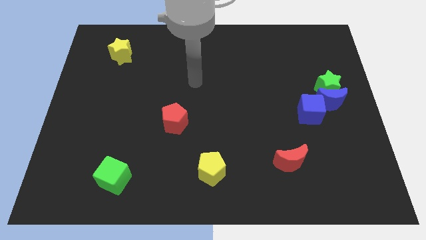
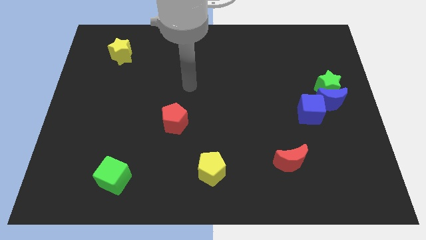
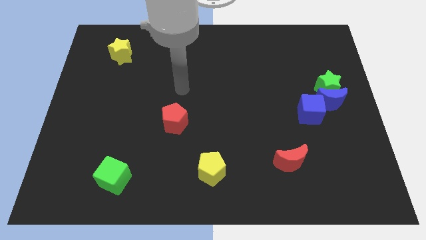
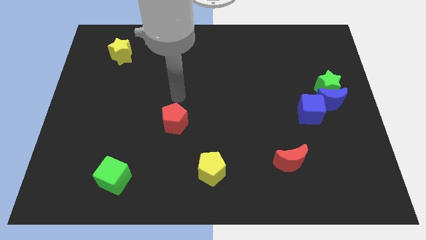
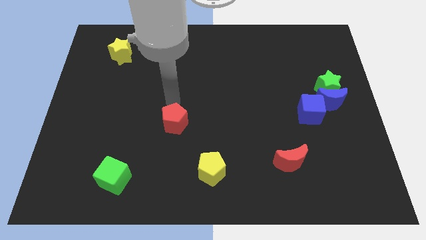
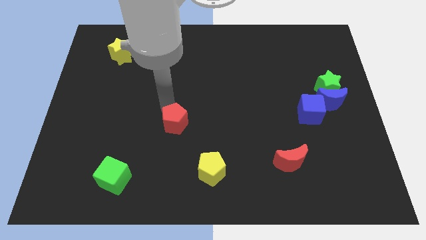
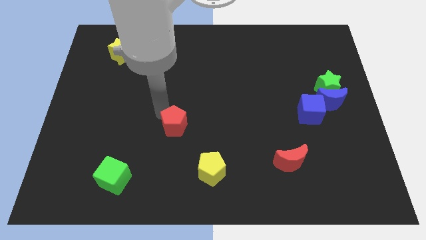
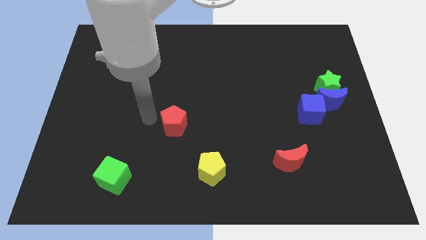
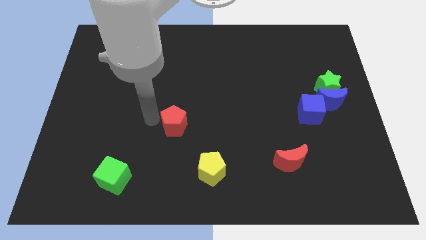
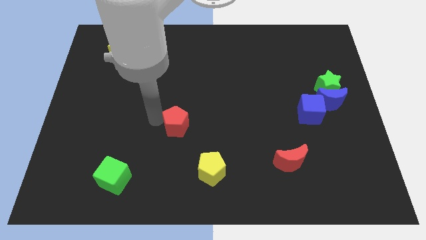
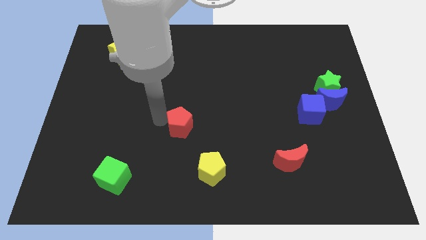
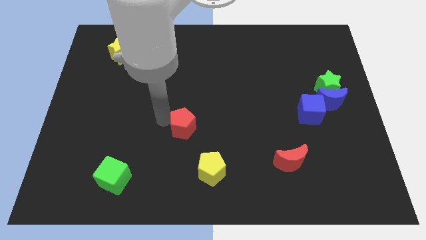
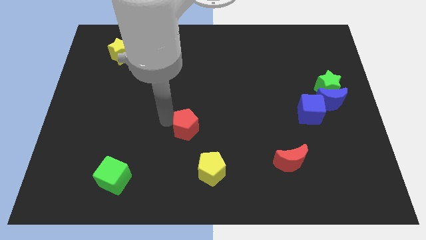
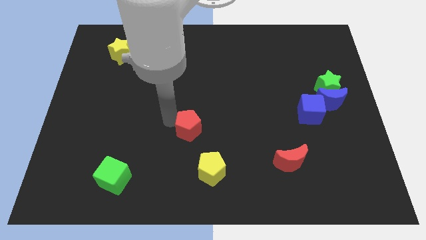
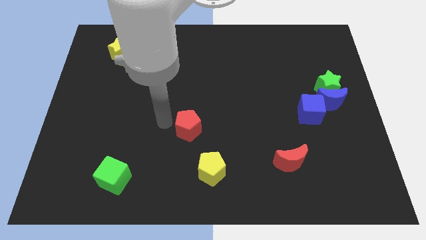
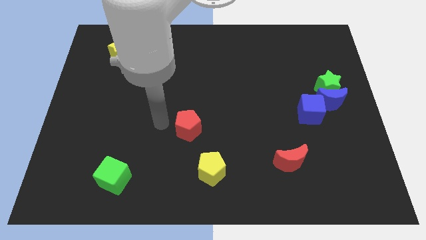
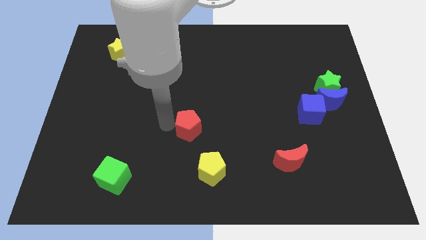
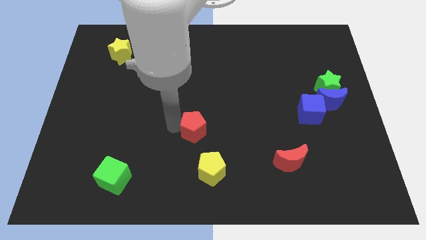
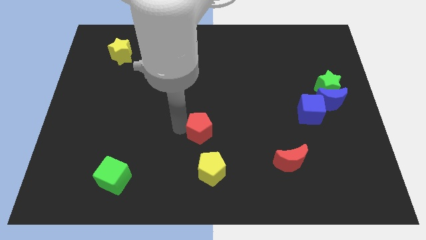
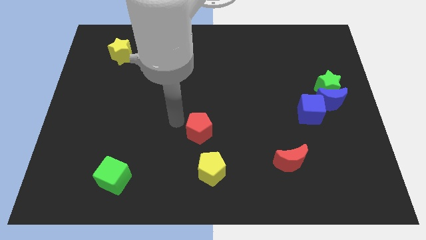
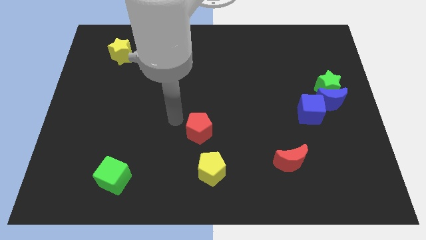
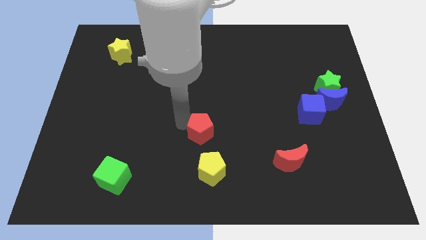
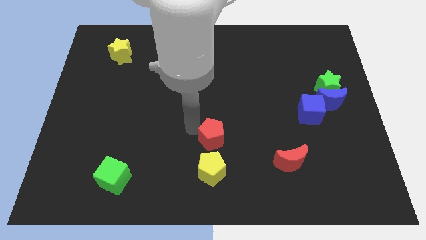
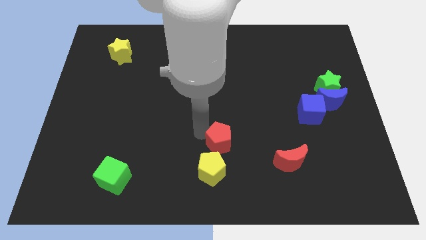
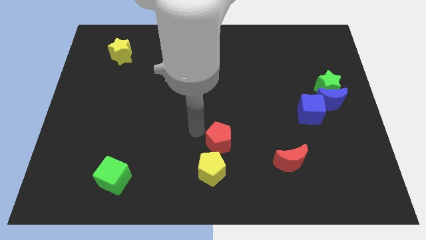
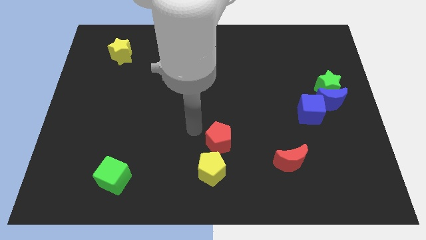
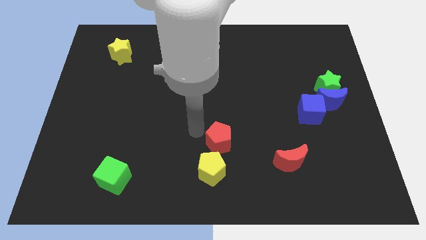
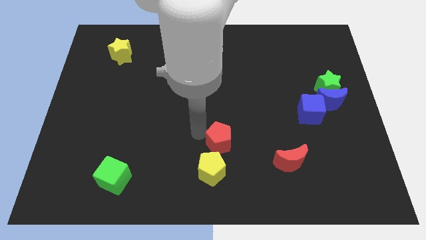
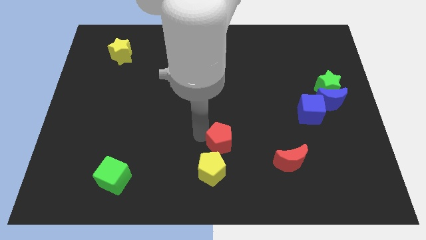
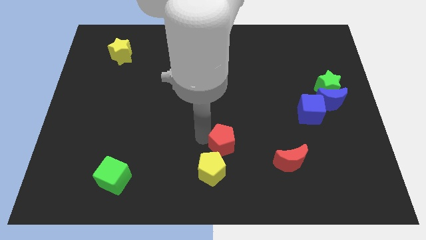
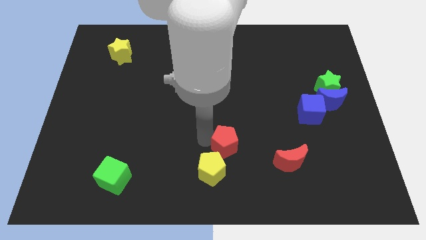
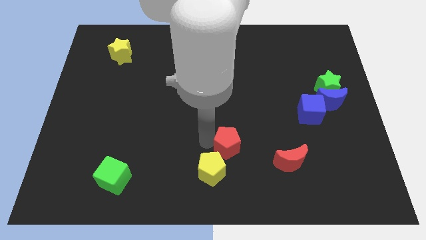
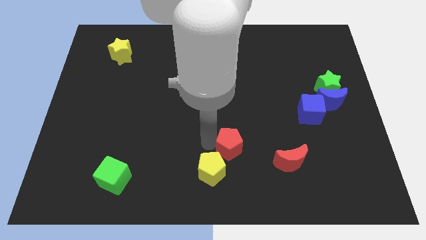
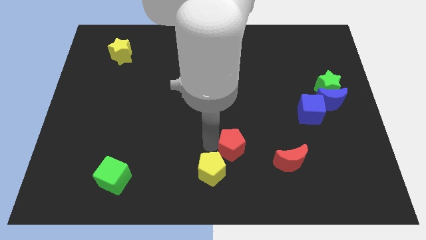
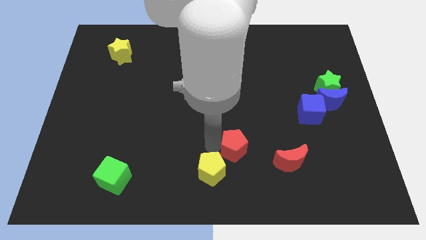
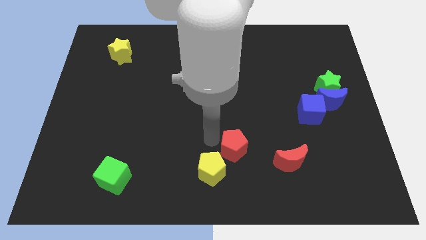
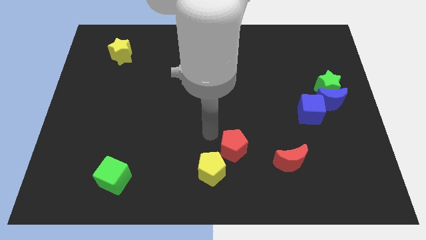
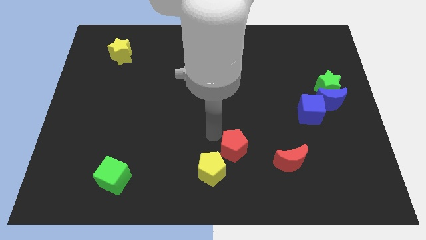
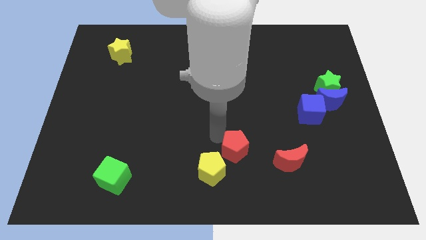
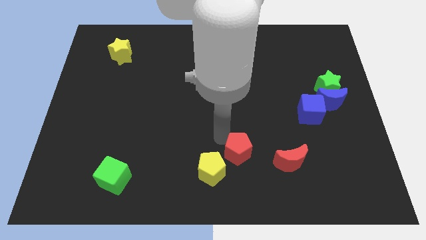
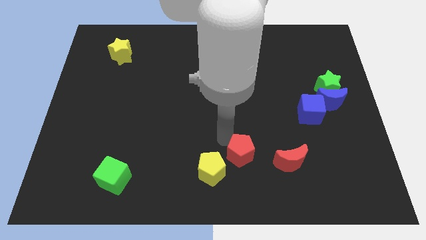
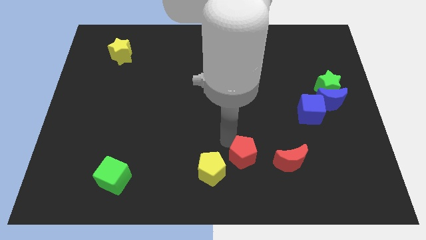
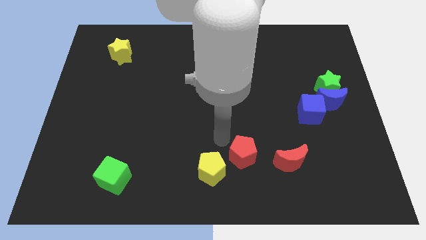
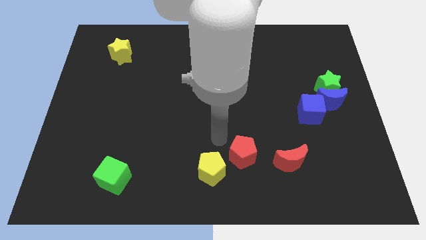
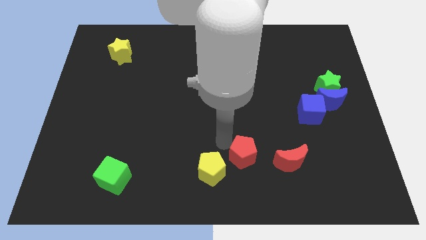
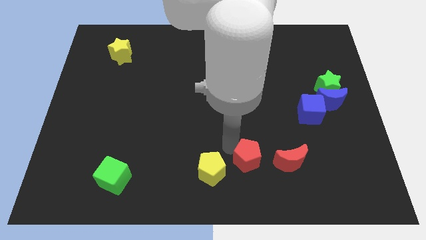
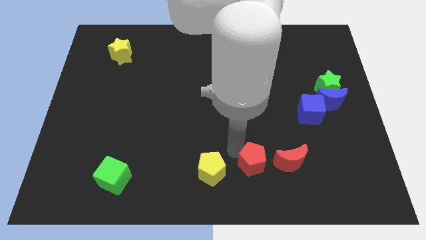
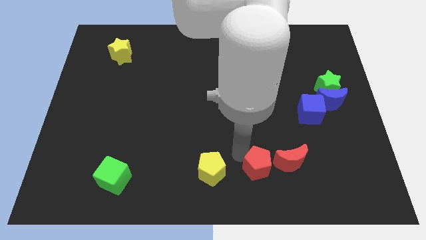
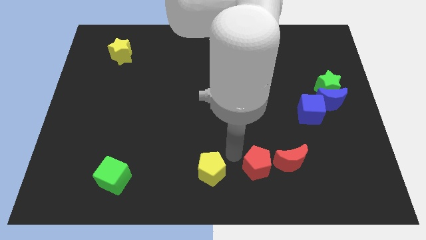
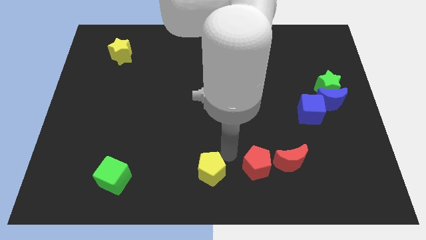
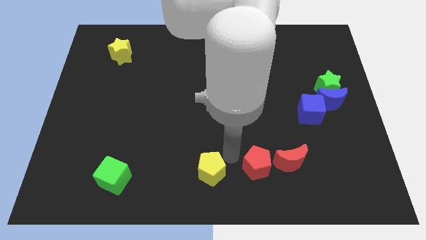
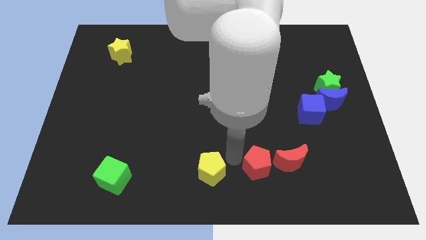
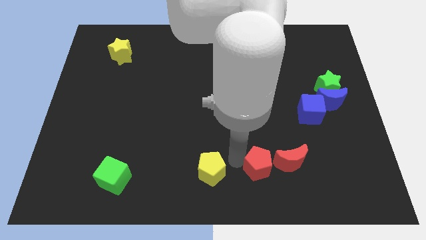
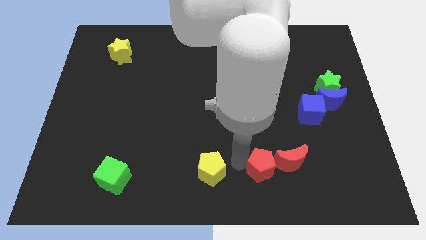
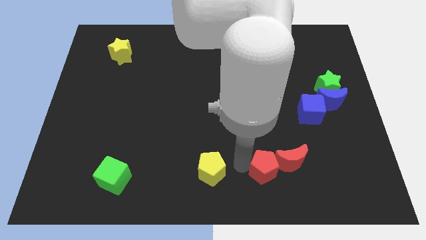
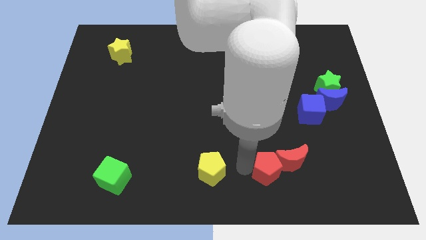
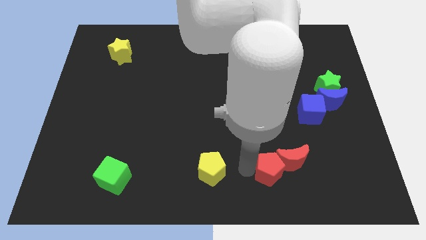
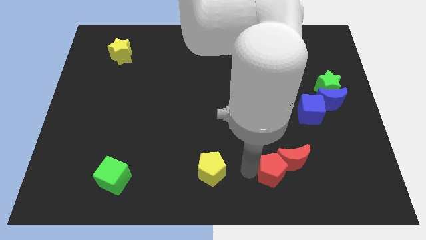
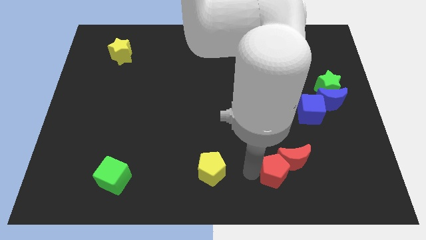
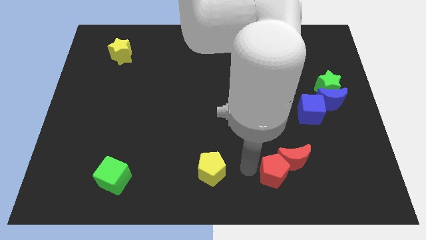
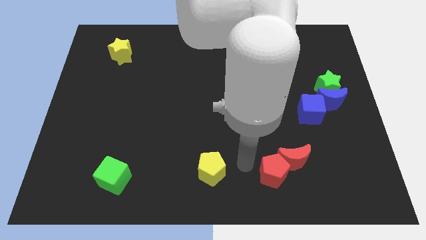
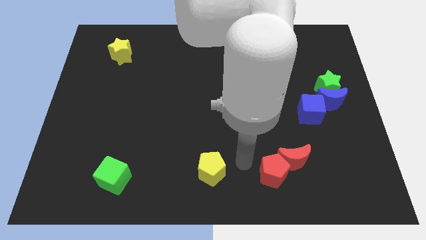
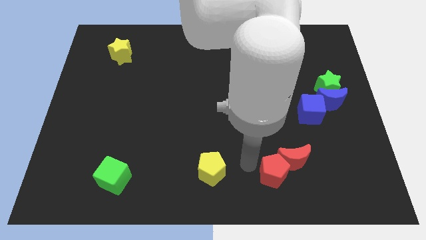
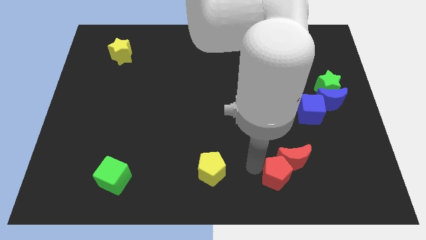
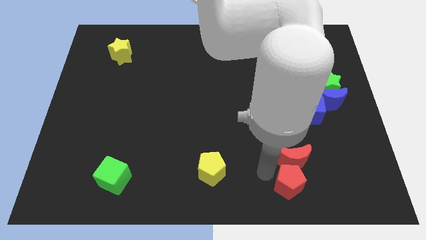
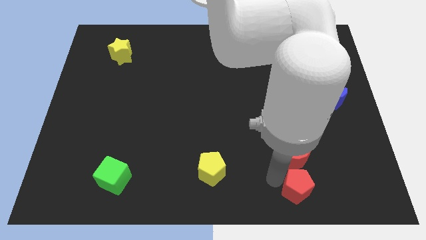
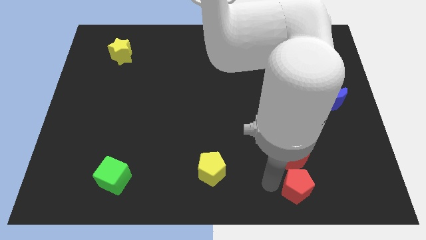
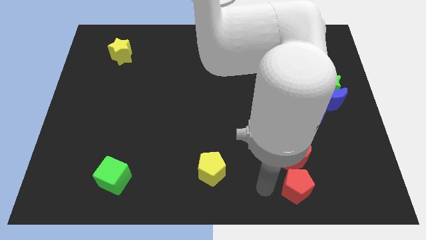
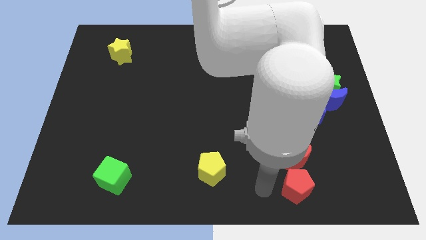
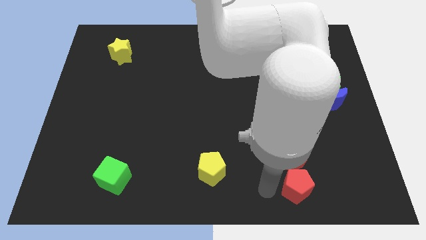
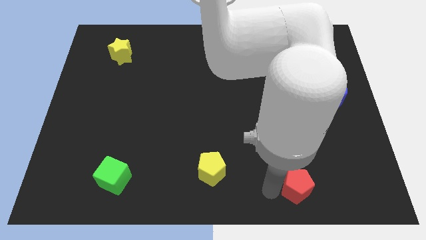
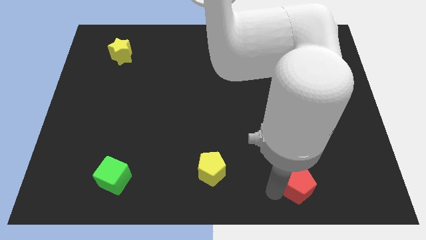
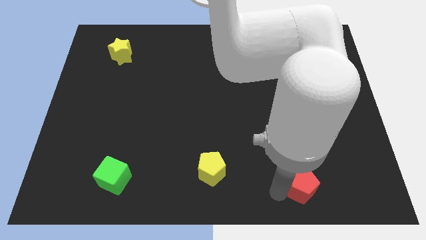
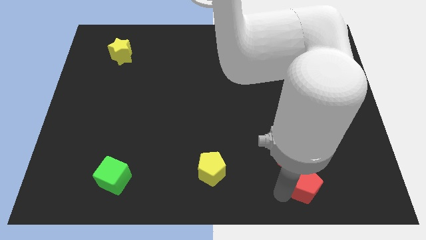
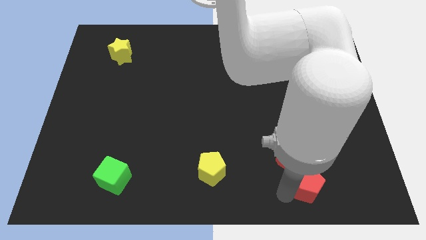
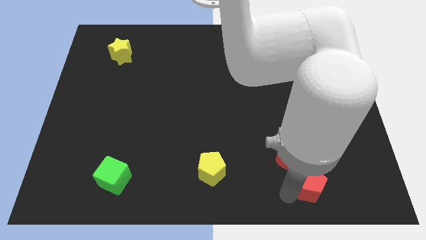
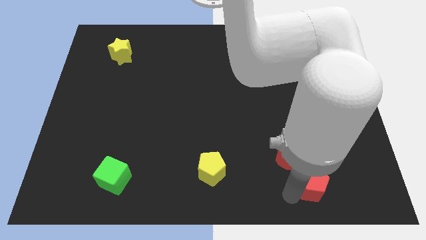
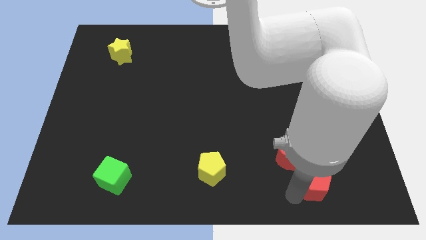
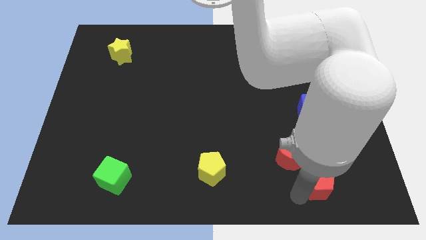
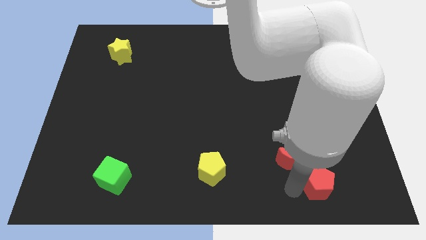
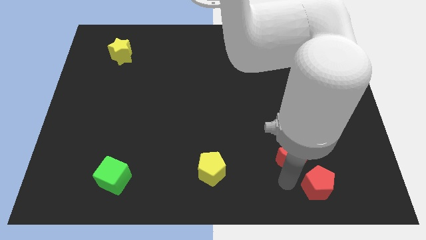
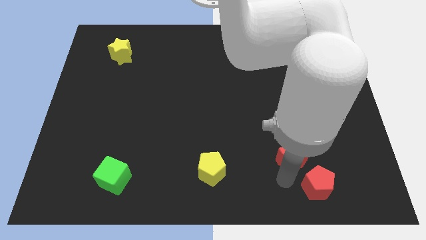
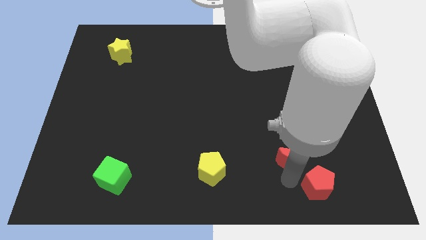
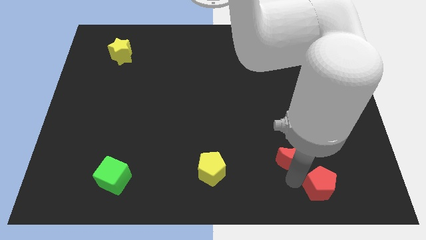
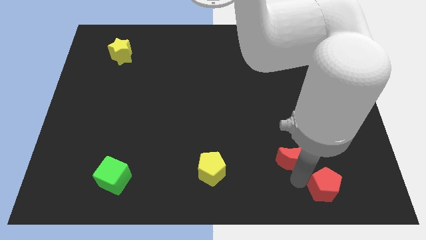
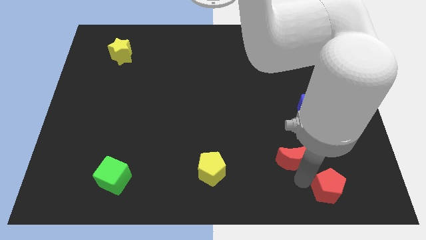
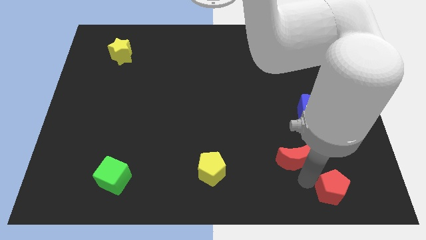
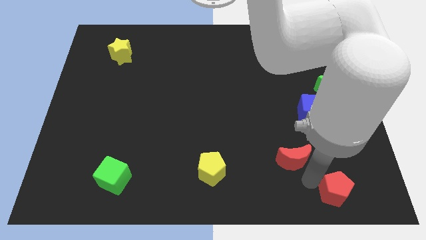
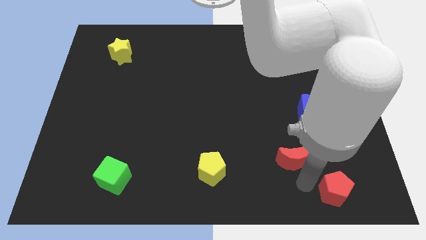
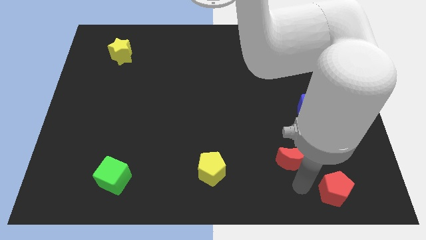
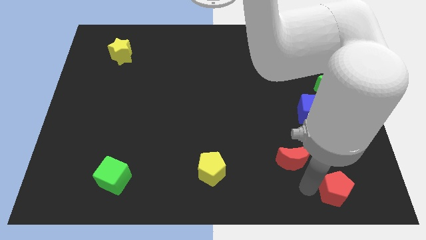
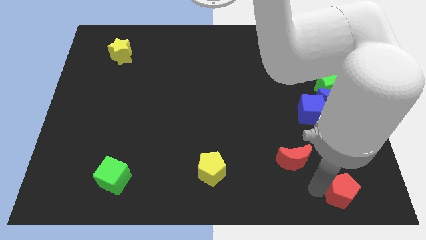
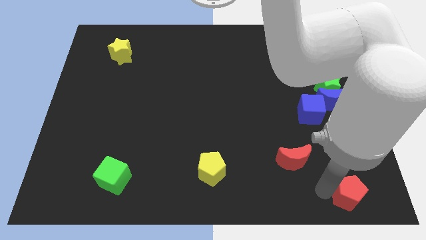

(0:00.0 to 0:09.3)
move the red pentagon to the lower right corner
